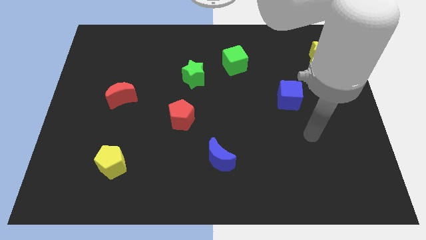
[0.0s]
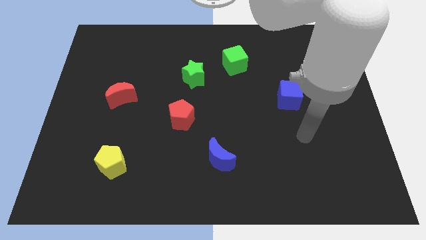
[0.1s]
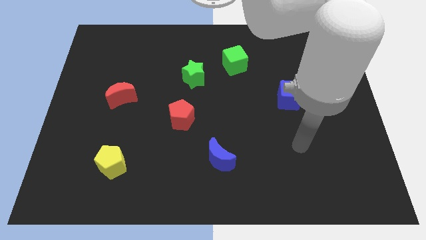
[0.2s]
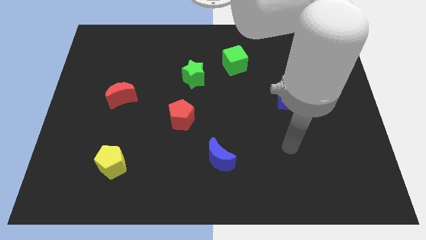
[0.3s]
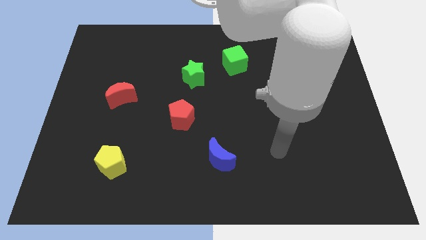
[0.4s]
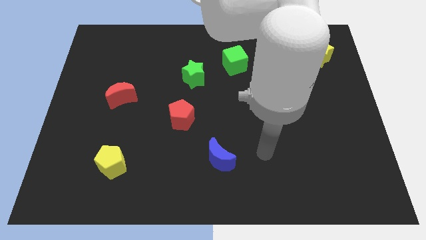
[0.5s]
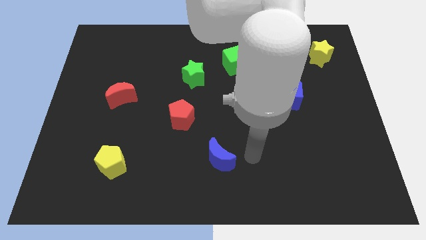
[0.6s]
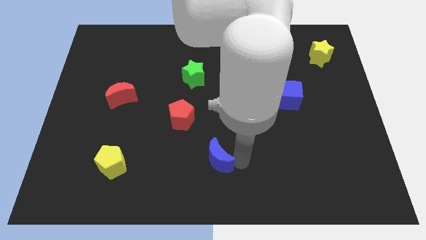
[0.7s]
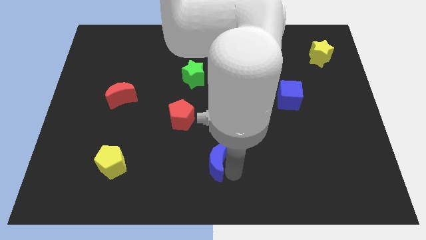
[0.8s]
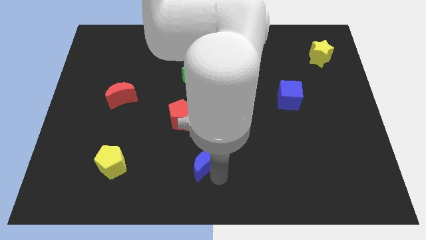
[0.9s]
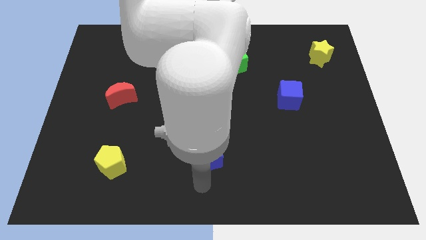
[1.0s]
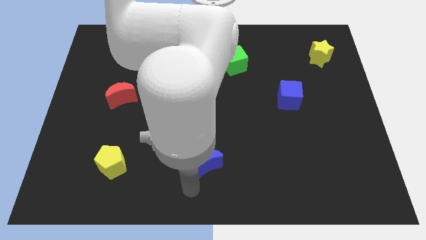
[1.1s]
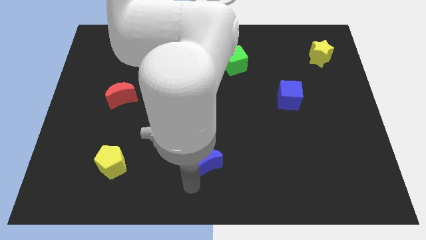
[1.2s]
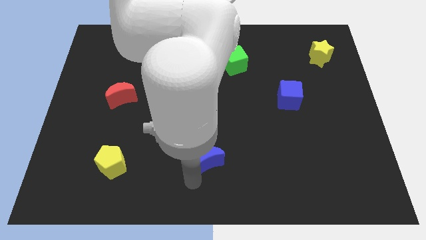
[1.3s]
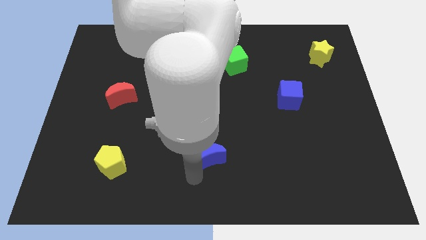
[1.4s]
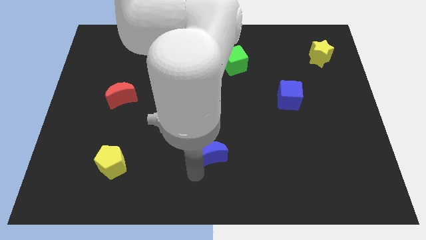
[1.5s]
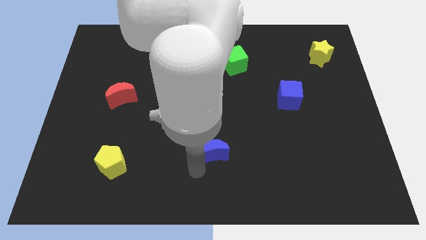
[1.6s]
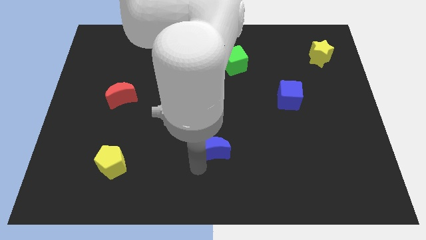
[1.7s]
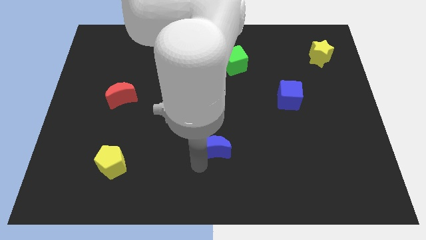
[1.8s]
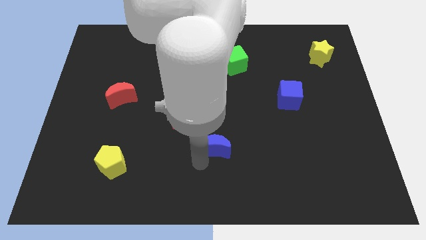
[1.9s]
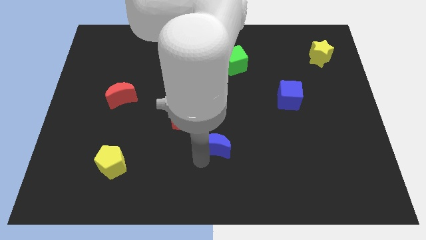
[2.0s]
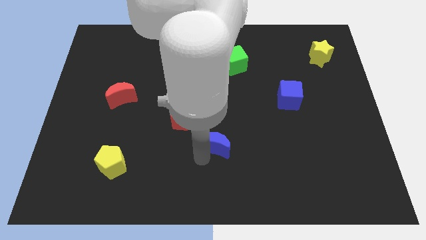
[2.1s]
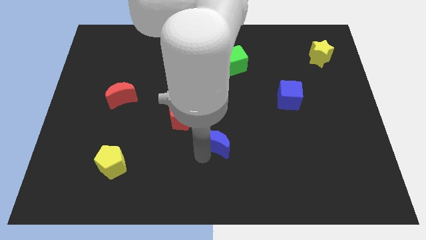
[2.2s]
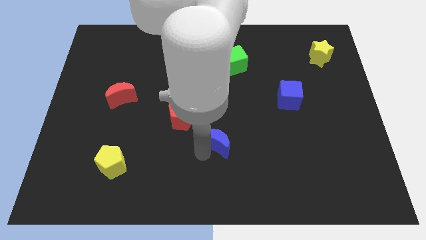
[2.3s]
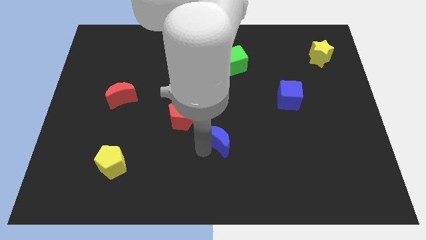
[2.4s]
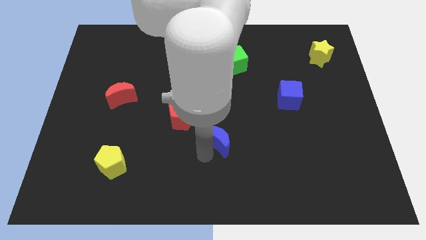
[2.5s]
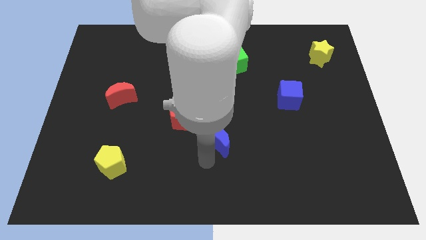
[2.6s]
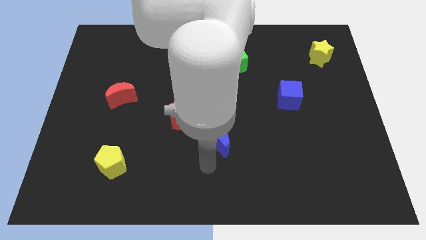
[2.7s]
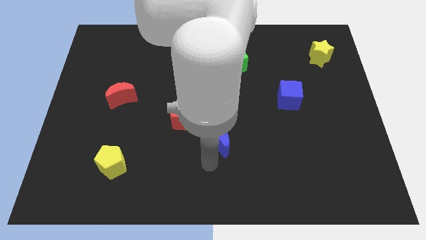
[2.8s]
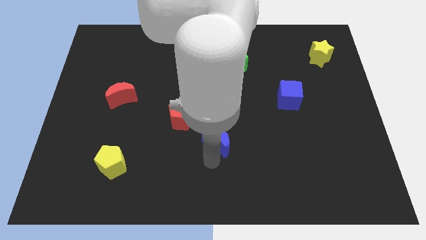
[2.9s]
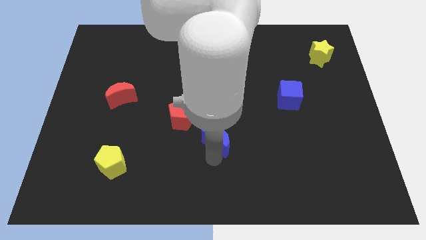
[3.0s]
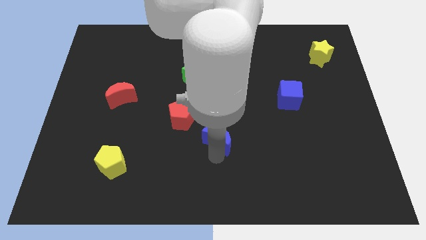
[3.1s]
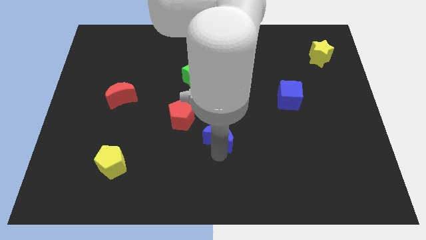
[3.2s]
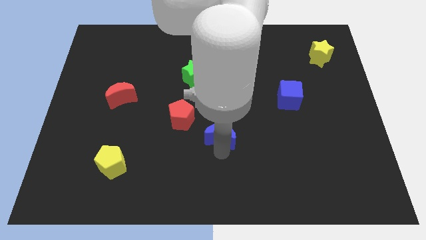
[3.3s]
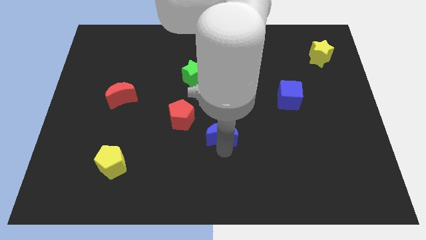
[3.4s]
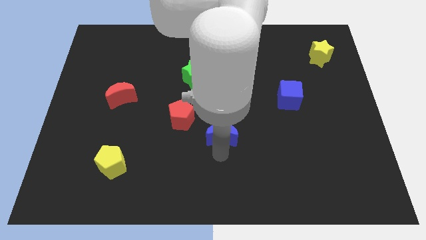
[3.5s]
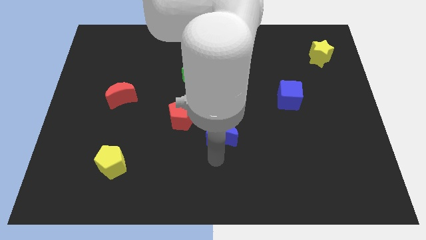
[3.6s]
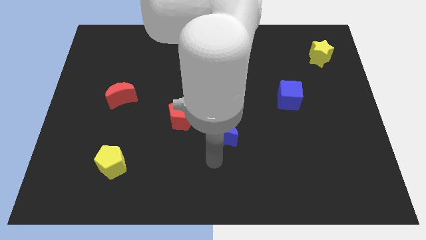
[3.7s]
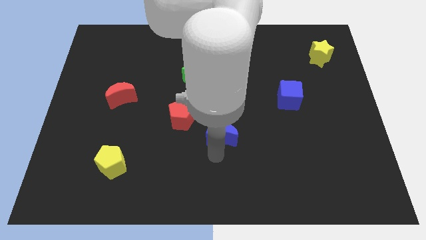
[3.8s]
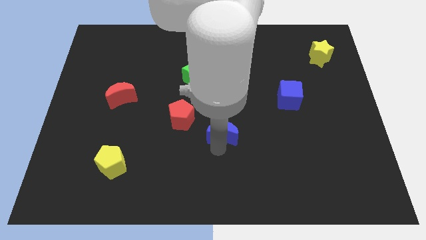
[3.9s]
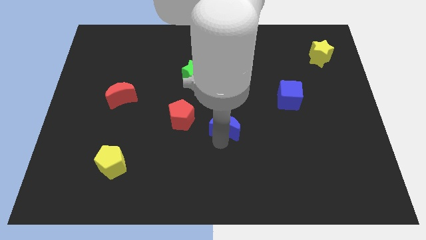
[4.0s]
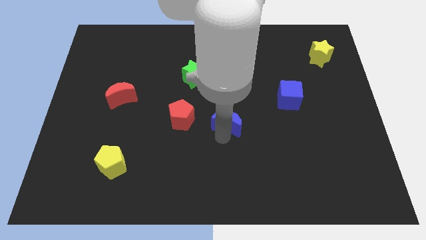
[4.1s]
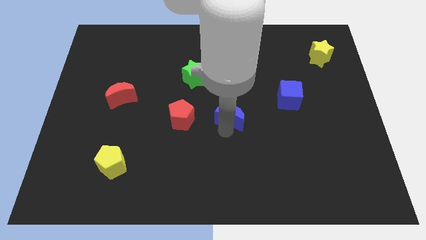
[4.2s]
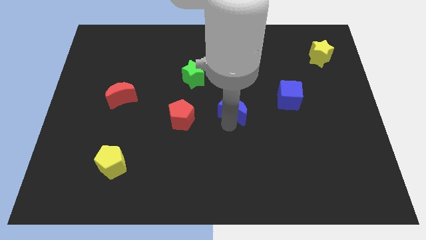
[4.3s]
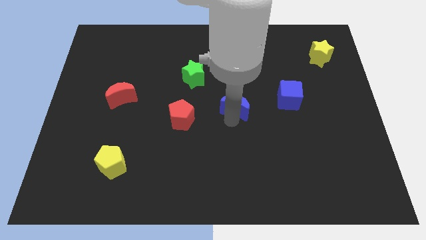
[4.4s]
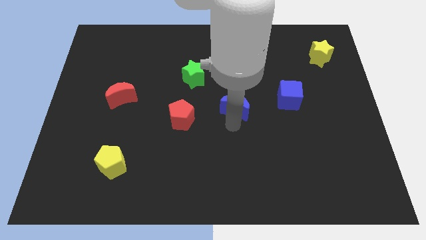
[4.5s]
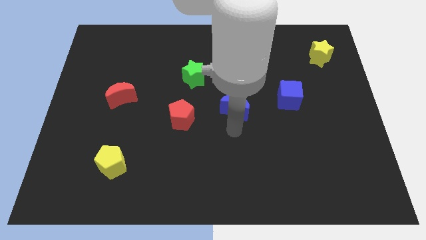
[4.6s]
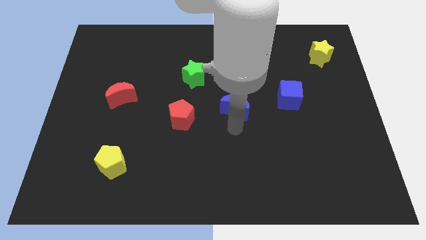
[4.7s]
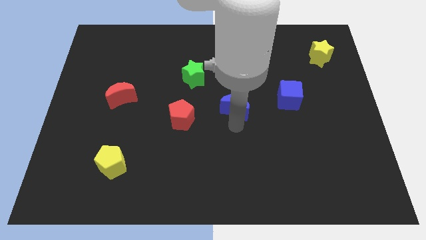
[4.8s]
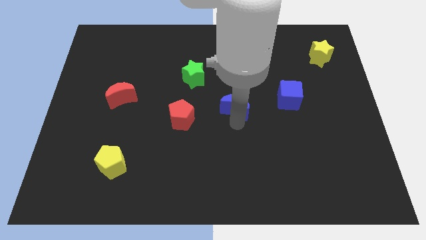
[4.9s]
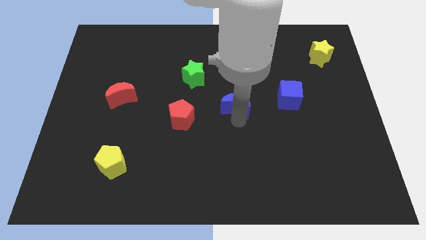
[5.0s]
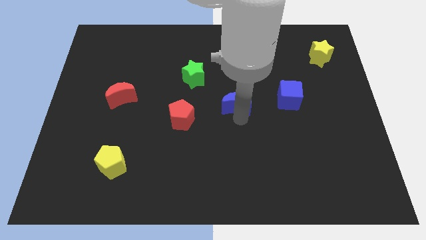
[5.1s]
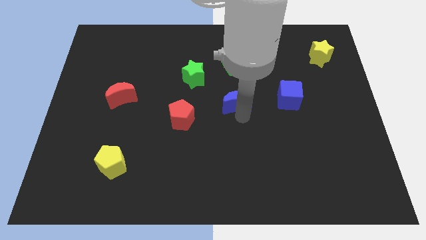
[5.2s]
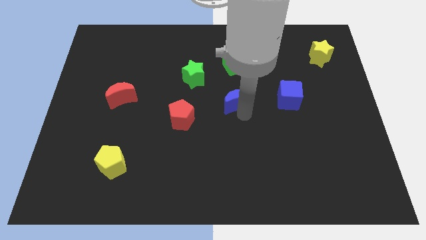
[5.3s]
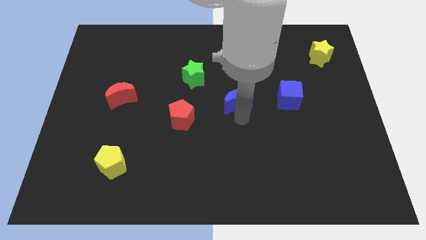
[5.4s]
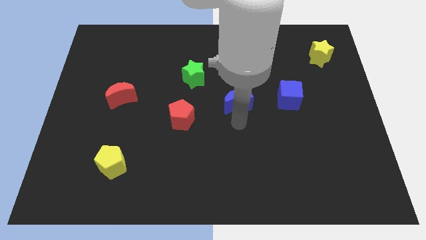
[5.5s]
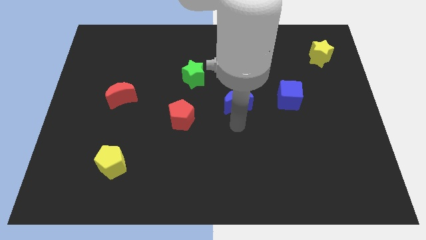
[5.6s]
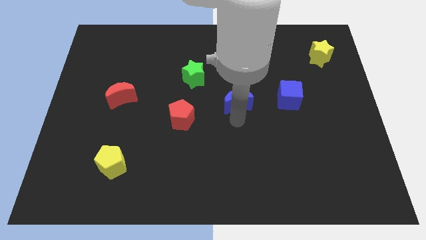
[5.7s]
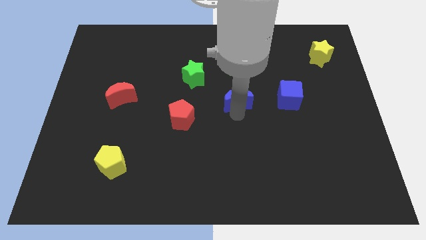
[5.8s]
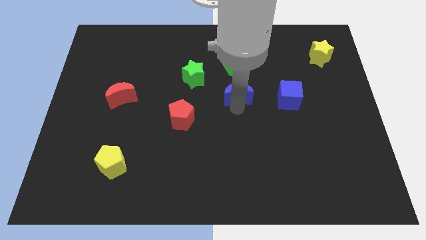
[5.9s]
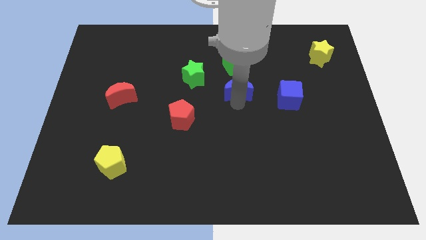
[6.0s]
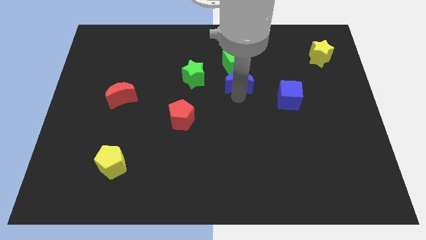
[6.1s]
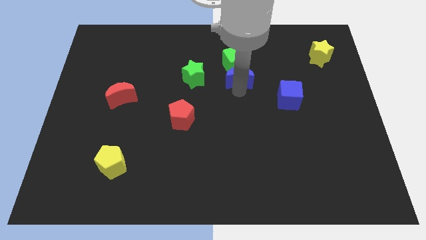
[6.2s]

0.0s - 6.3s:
slide the blue moon next to the green cube

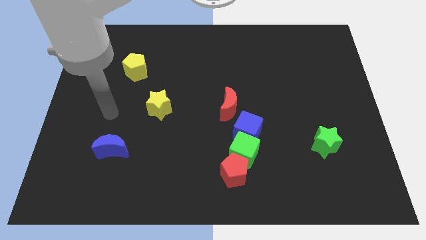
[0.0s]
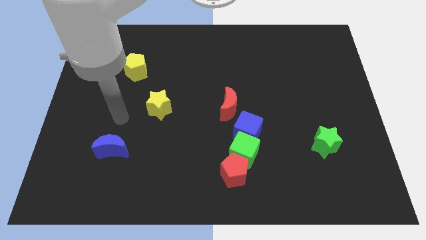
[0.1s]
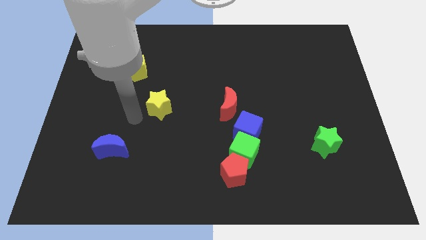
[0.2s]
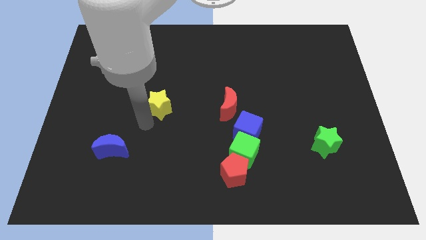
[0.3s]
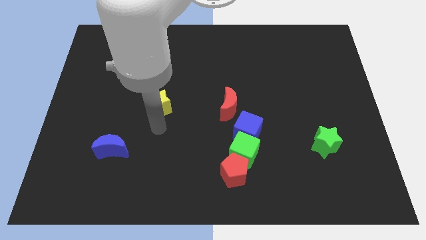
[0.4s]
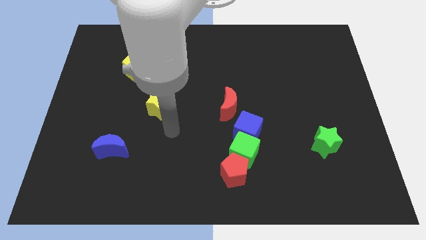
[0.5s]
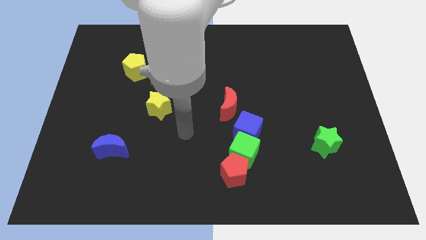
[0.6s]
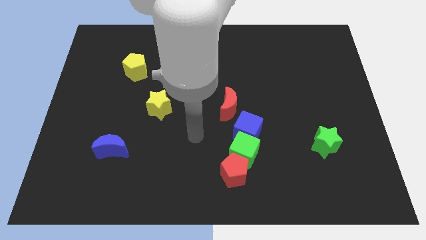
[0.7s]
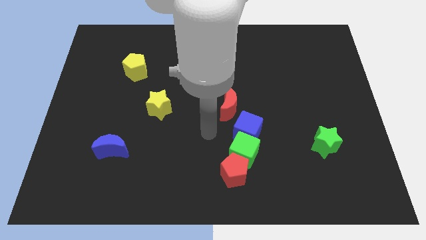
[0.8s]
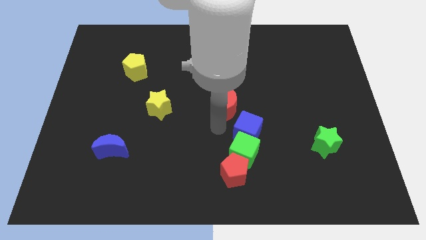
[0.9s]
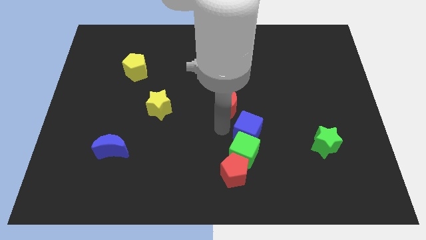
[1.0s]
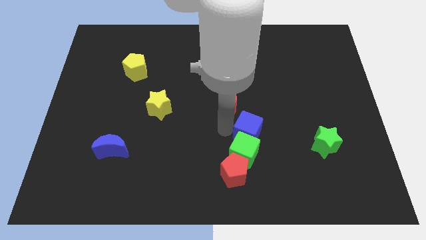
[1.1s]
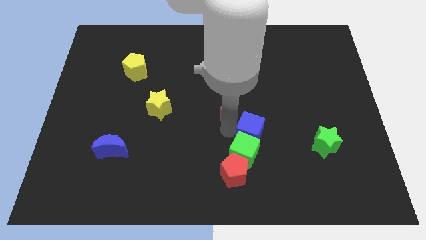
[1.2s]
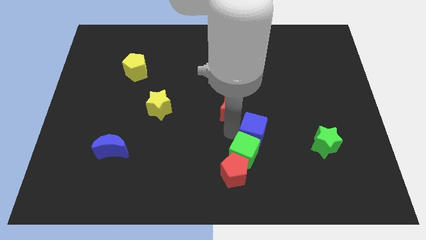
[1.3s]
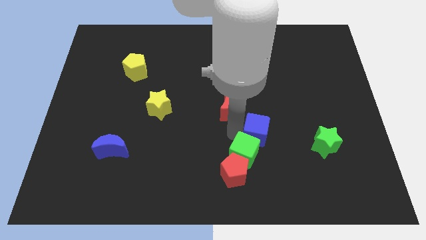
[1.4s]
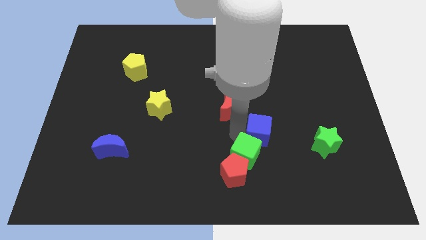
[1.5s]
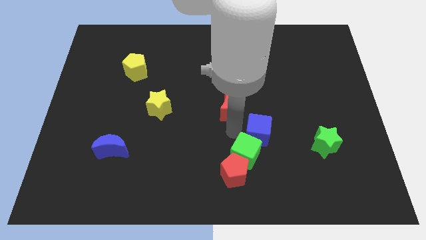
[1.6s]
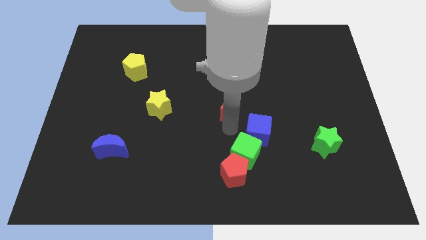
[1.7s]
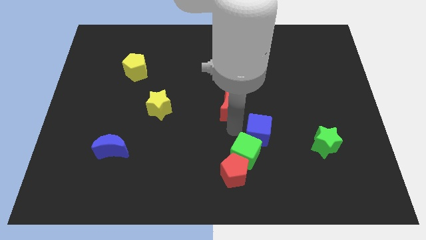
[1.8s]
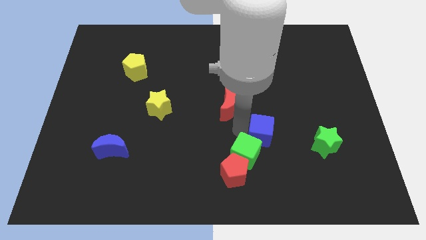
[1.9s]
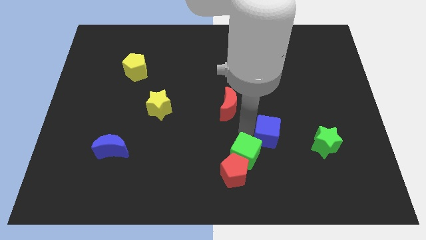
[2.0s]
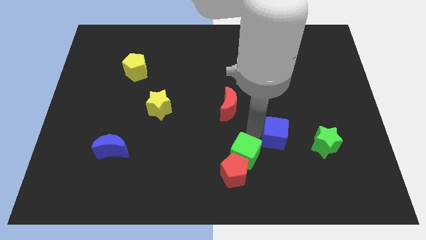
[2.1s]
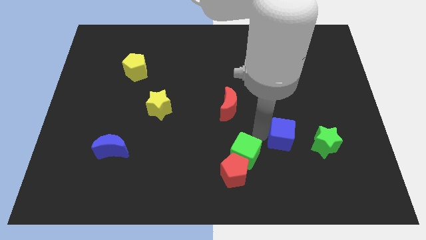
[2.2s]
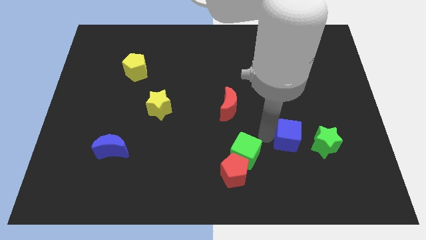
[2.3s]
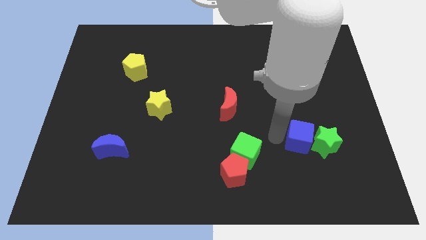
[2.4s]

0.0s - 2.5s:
slide the blue cube next to the green star
